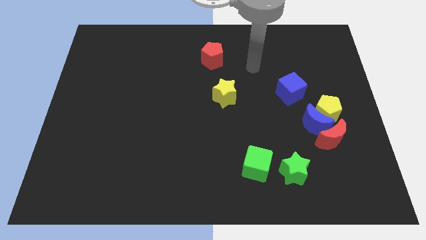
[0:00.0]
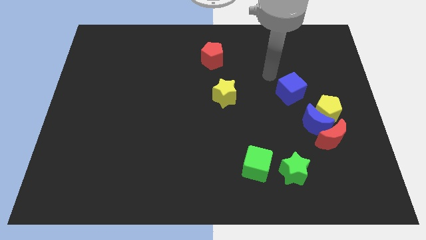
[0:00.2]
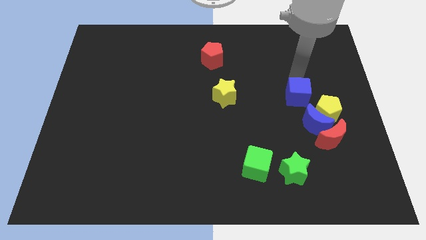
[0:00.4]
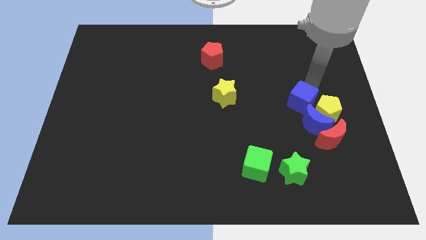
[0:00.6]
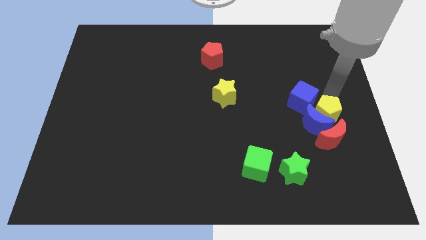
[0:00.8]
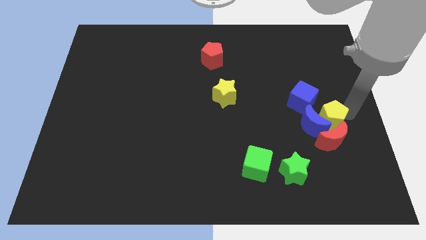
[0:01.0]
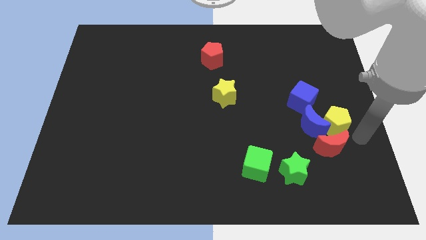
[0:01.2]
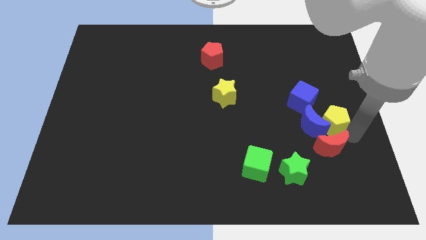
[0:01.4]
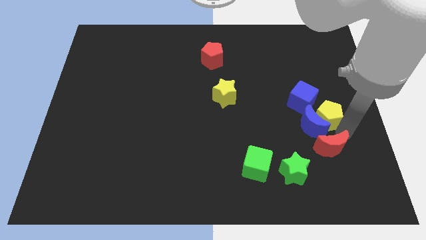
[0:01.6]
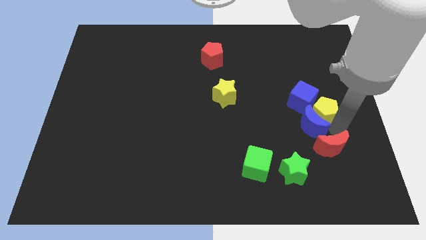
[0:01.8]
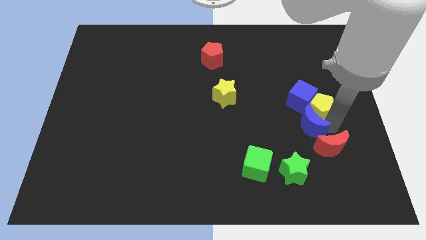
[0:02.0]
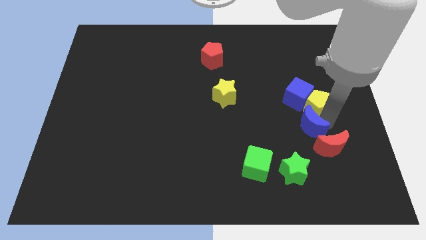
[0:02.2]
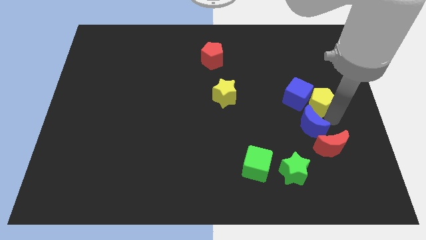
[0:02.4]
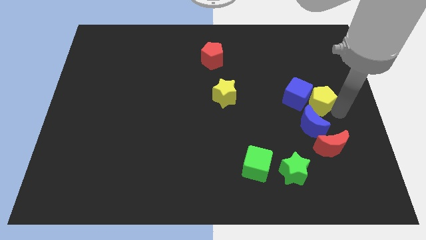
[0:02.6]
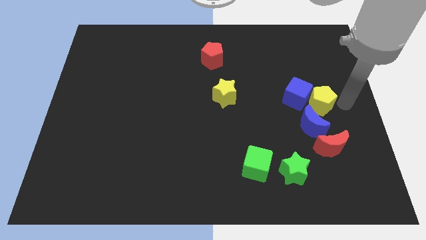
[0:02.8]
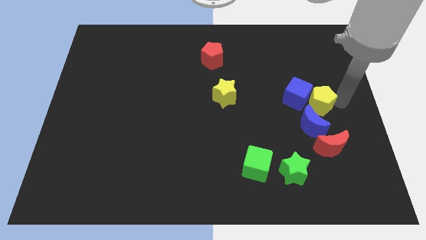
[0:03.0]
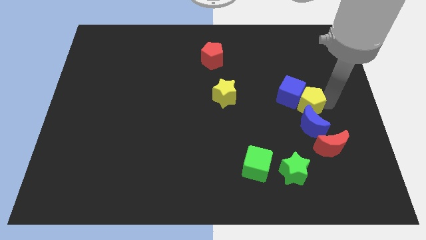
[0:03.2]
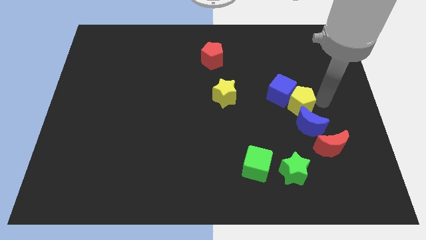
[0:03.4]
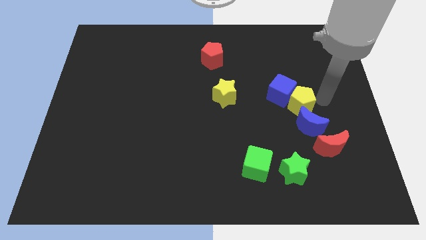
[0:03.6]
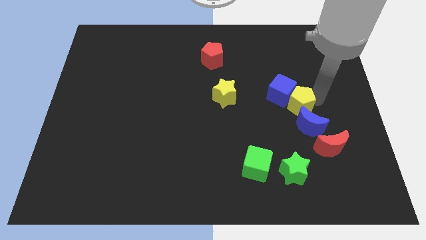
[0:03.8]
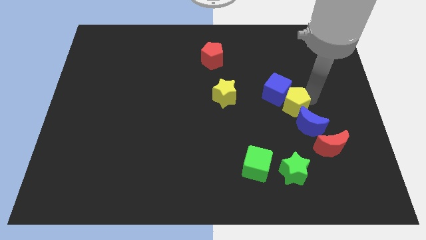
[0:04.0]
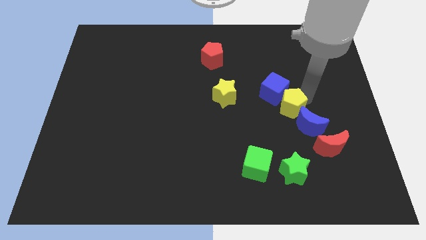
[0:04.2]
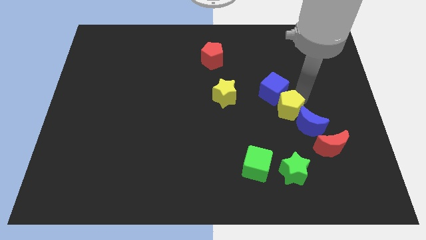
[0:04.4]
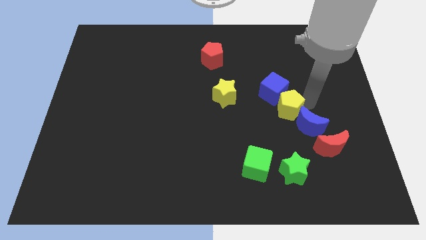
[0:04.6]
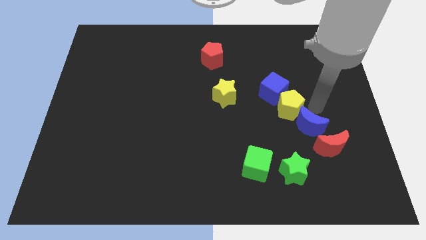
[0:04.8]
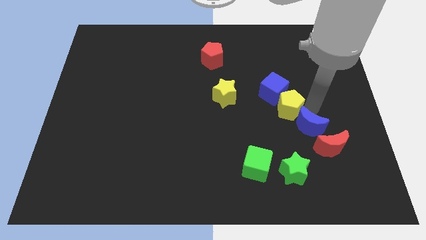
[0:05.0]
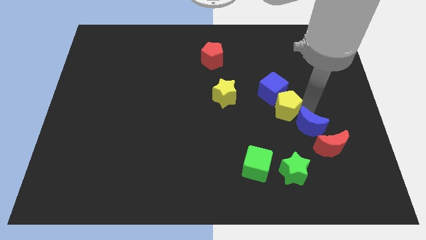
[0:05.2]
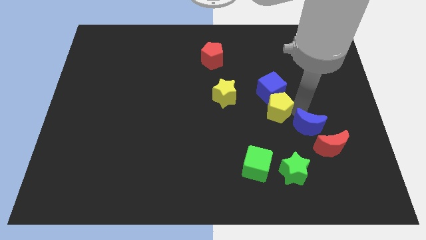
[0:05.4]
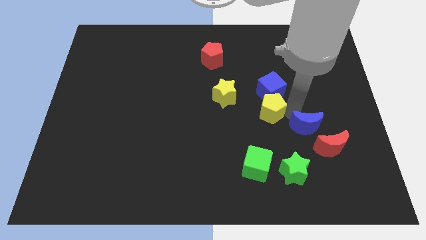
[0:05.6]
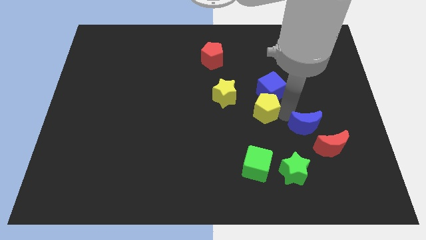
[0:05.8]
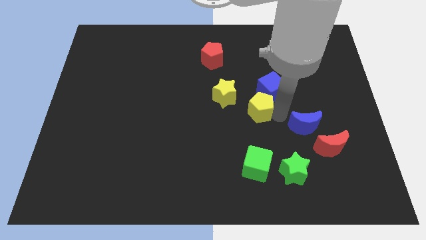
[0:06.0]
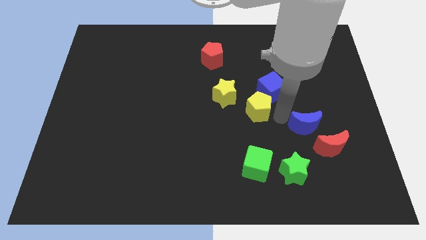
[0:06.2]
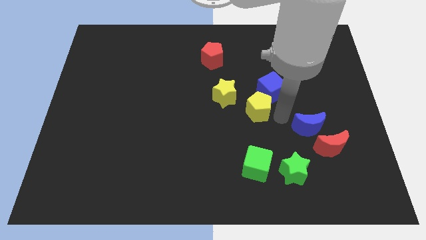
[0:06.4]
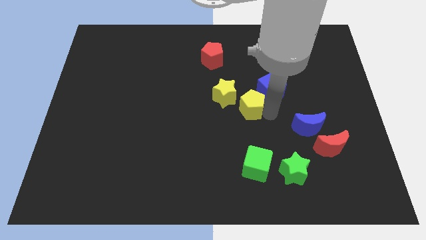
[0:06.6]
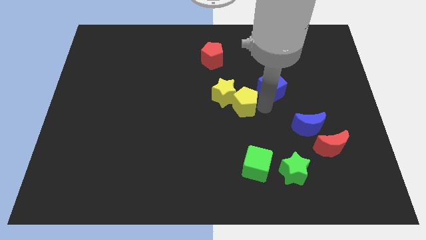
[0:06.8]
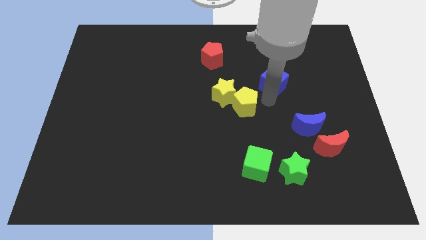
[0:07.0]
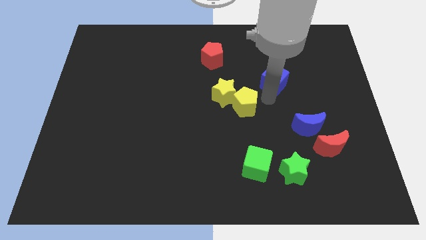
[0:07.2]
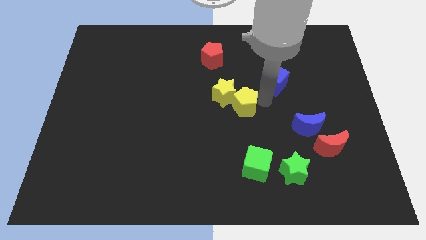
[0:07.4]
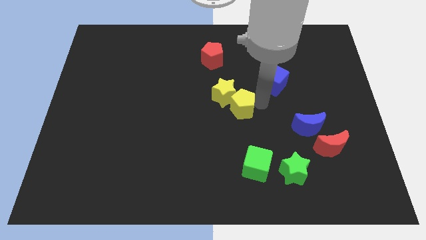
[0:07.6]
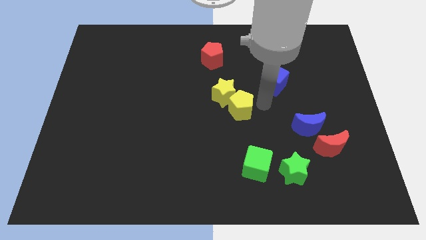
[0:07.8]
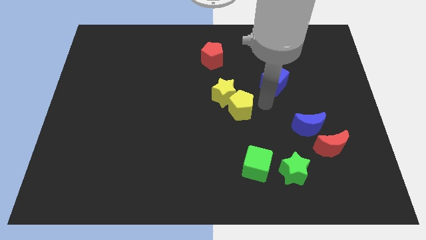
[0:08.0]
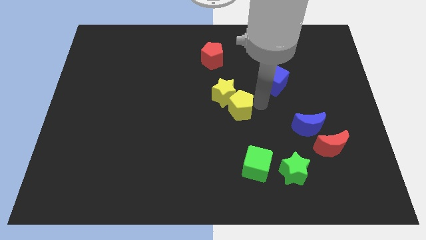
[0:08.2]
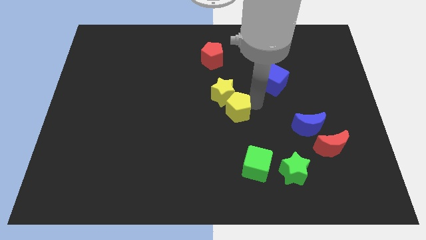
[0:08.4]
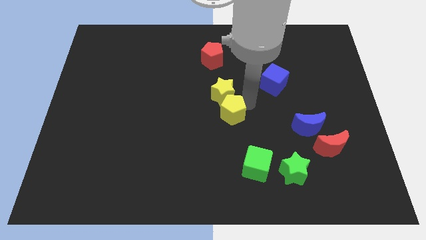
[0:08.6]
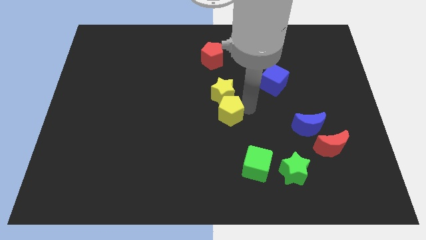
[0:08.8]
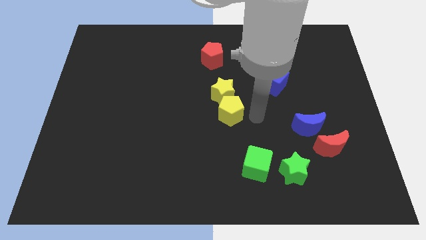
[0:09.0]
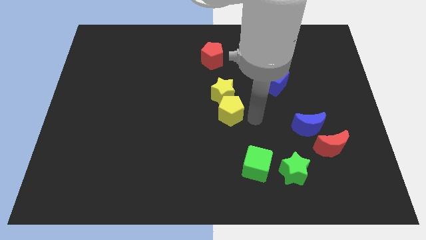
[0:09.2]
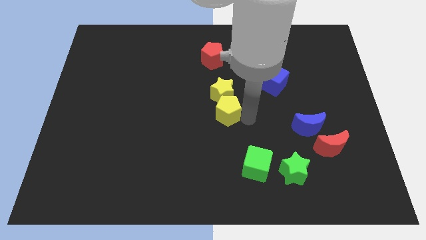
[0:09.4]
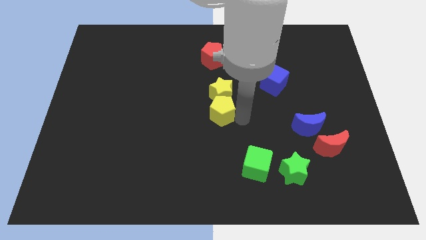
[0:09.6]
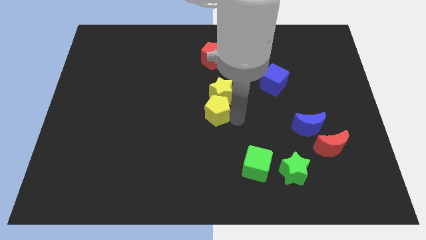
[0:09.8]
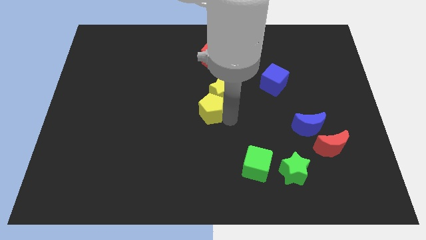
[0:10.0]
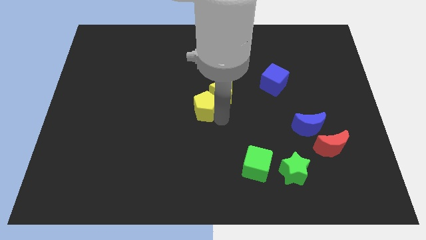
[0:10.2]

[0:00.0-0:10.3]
put the yellow pentagon just left of the yellow star

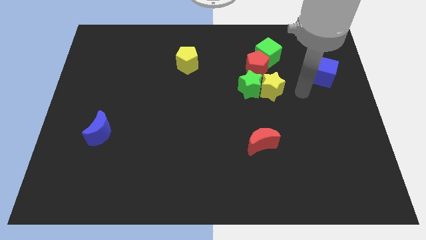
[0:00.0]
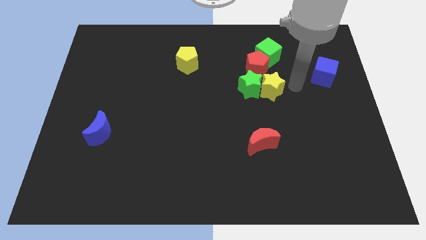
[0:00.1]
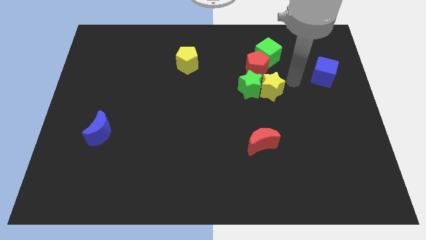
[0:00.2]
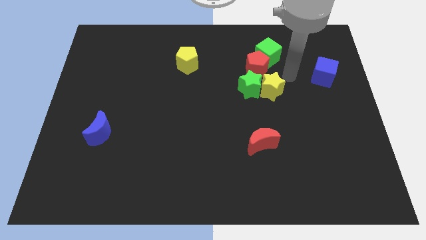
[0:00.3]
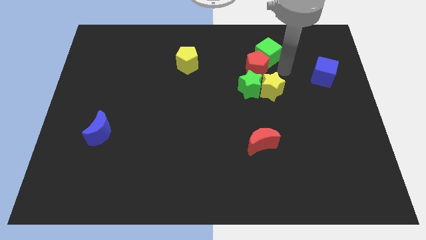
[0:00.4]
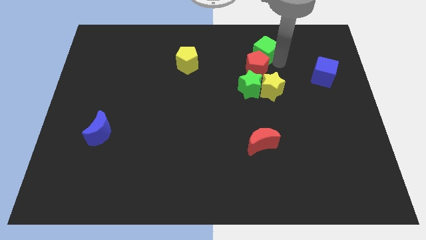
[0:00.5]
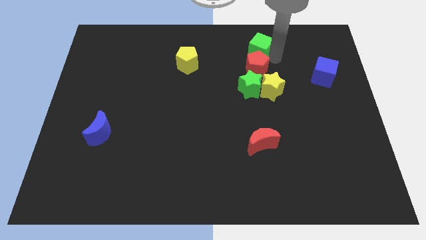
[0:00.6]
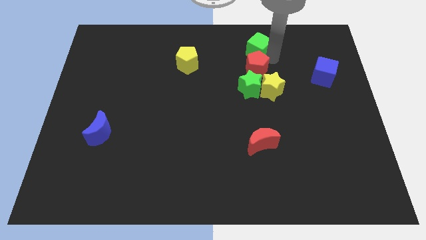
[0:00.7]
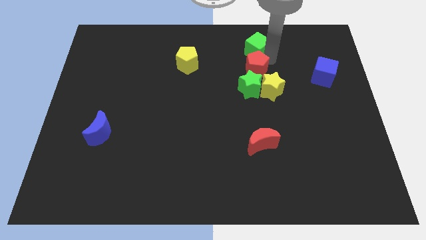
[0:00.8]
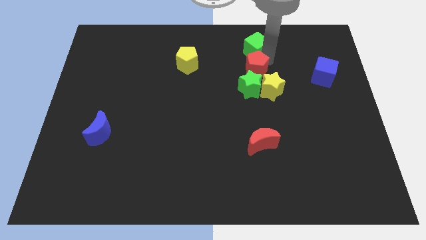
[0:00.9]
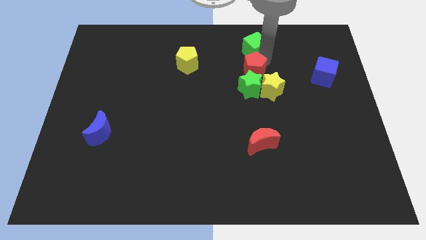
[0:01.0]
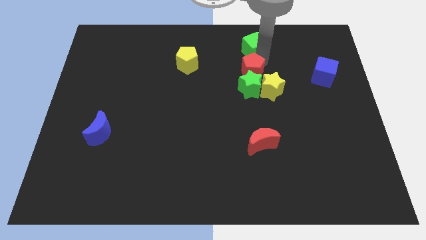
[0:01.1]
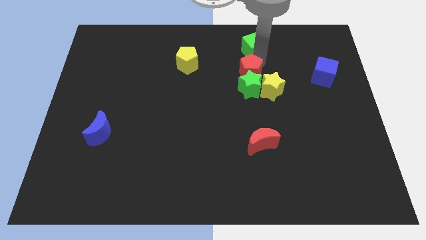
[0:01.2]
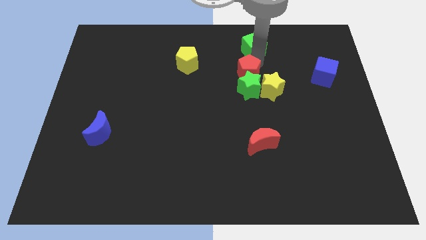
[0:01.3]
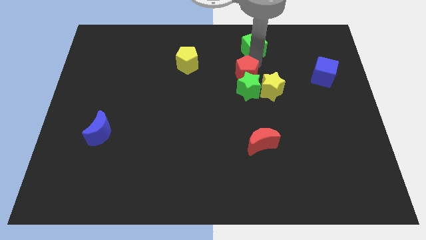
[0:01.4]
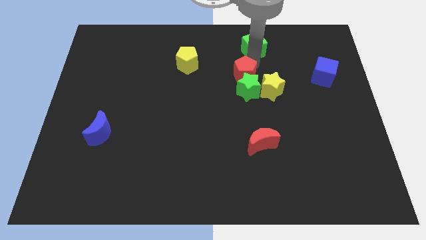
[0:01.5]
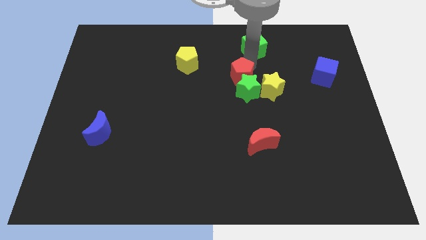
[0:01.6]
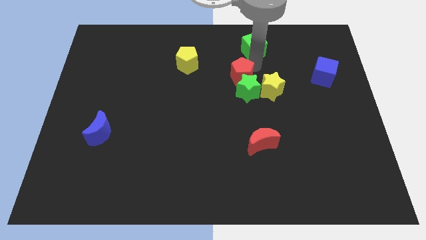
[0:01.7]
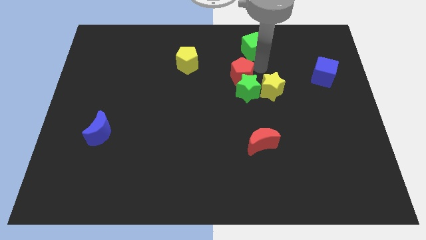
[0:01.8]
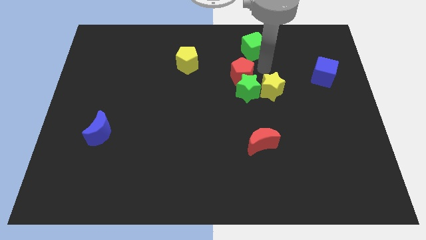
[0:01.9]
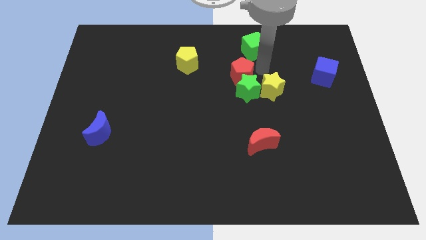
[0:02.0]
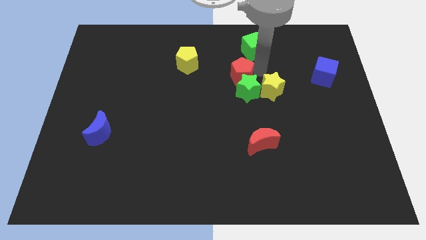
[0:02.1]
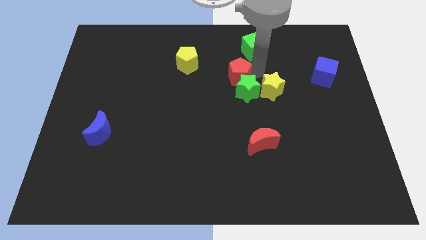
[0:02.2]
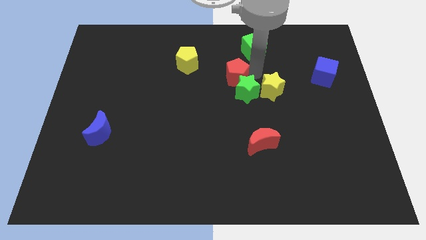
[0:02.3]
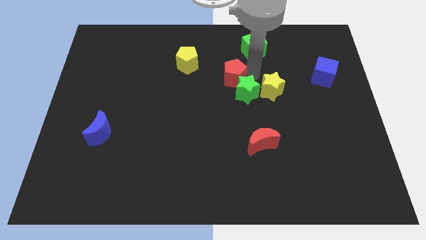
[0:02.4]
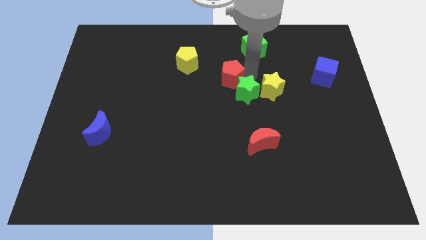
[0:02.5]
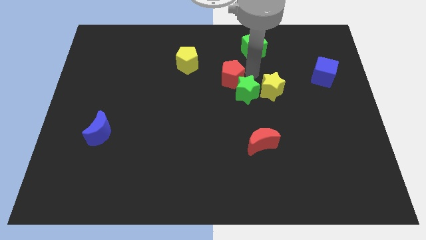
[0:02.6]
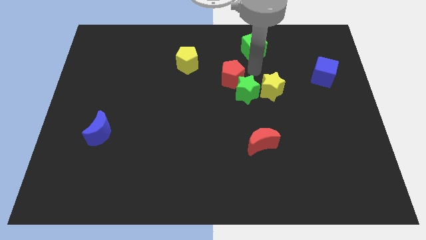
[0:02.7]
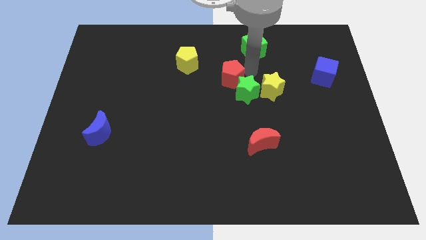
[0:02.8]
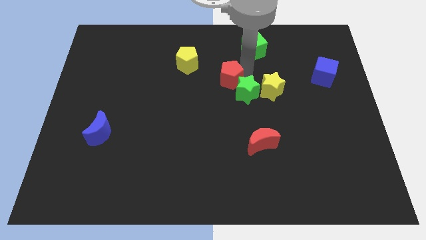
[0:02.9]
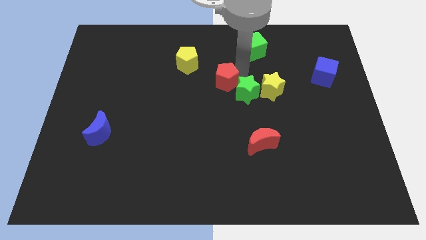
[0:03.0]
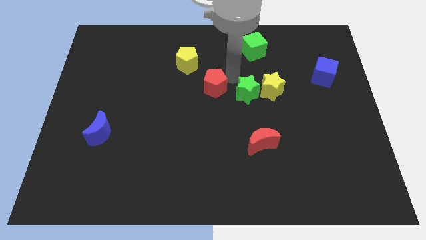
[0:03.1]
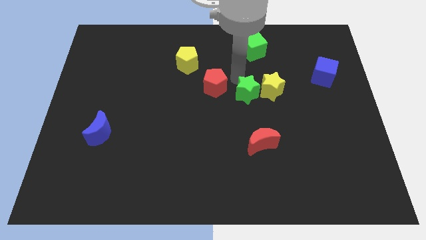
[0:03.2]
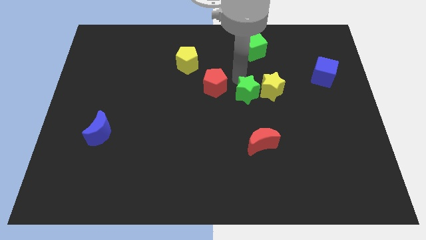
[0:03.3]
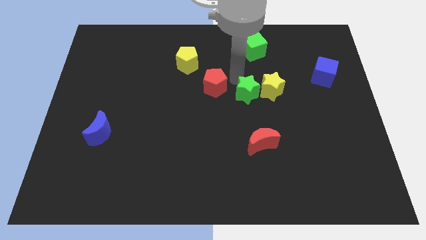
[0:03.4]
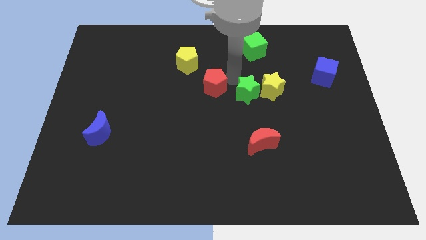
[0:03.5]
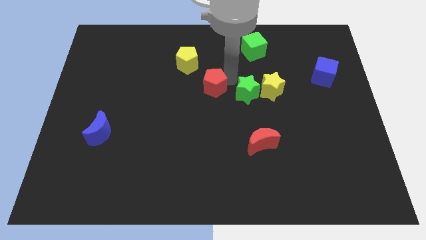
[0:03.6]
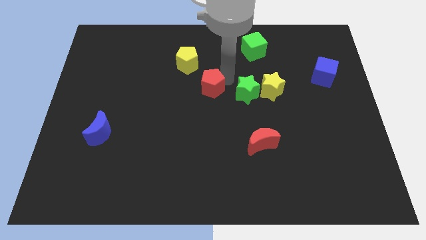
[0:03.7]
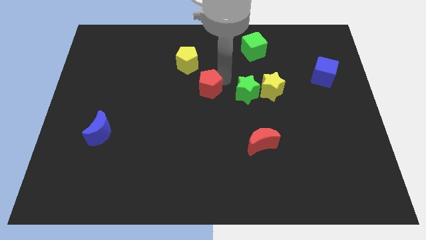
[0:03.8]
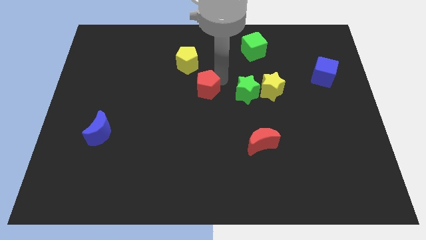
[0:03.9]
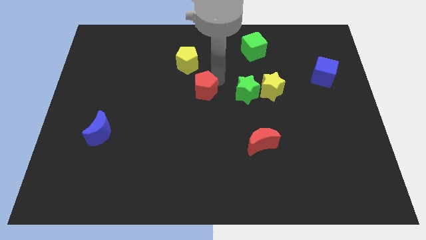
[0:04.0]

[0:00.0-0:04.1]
move the red pentagon below the yellow pentagon
